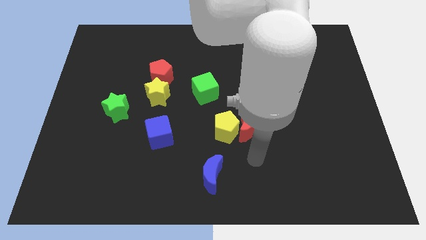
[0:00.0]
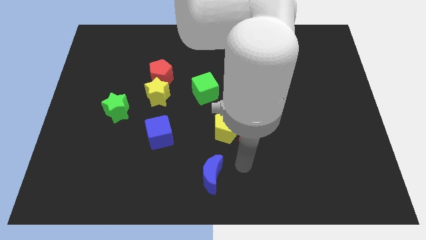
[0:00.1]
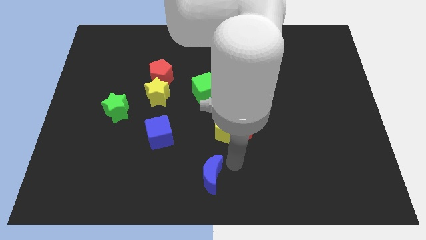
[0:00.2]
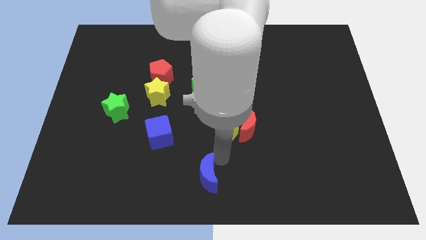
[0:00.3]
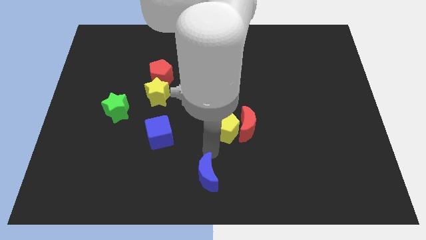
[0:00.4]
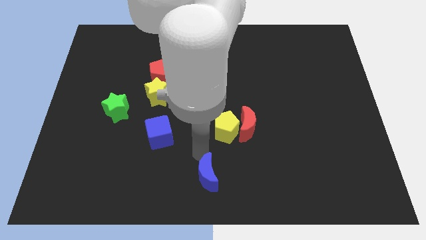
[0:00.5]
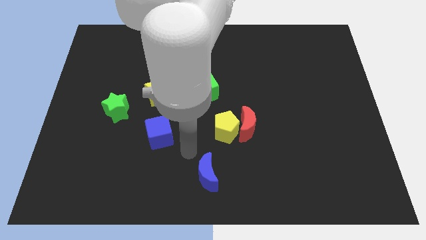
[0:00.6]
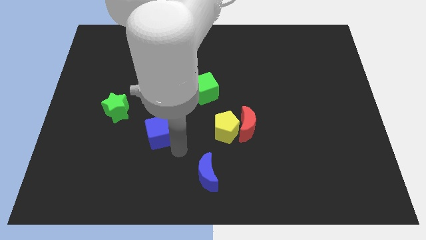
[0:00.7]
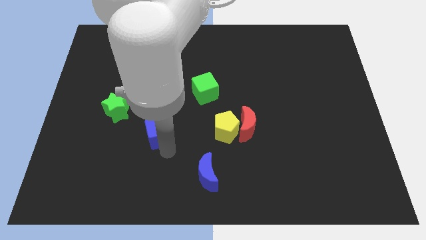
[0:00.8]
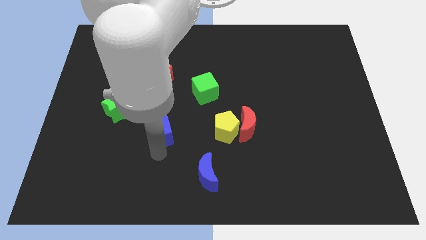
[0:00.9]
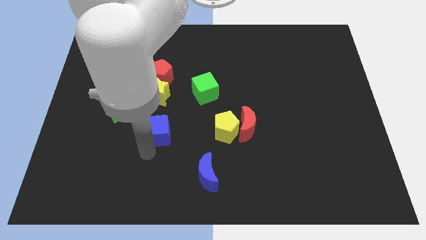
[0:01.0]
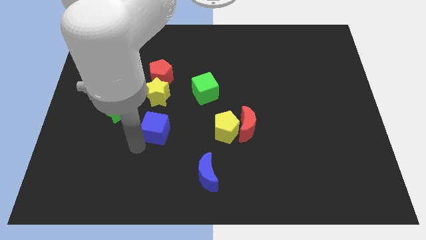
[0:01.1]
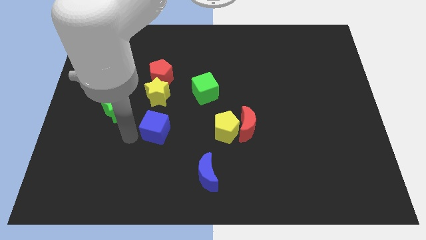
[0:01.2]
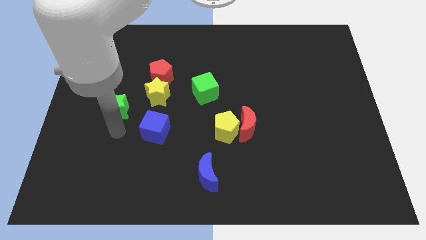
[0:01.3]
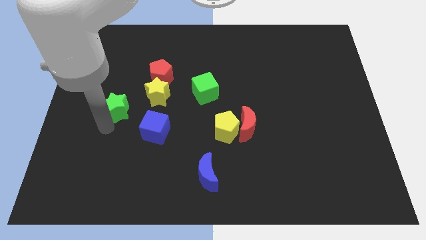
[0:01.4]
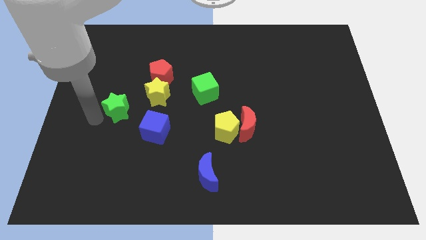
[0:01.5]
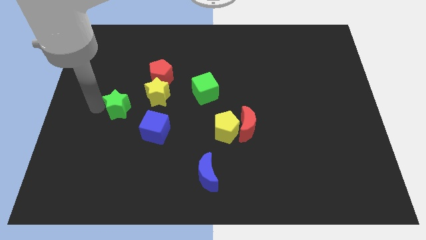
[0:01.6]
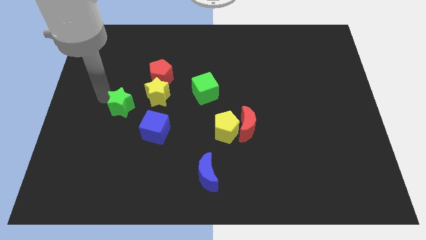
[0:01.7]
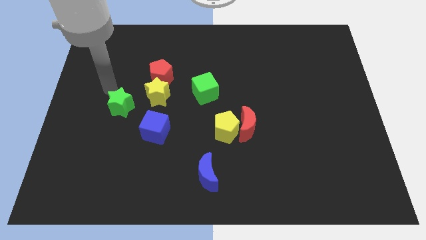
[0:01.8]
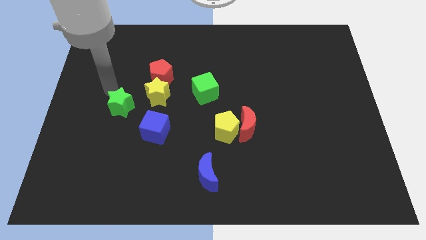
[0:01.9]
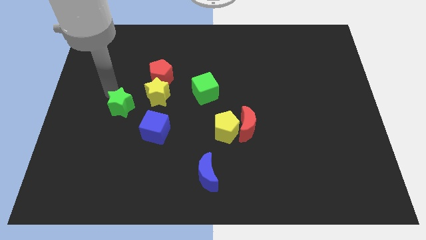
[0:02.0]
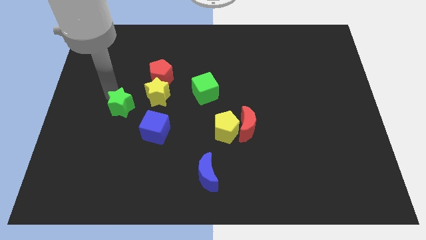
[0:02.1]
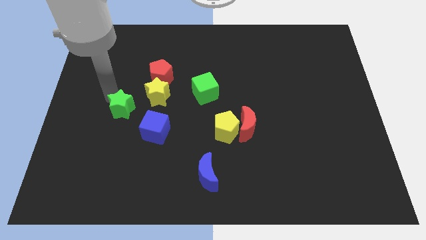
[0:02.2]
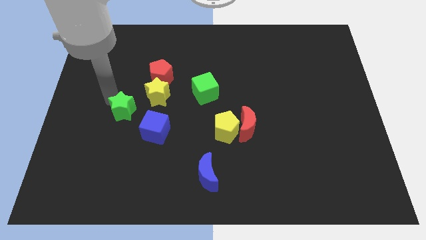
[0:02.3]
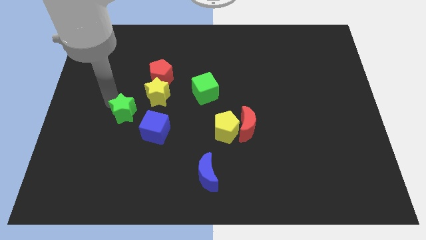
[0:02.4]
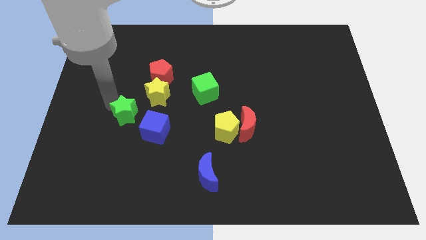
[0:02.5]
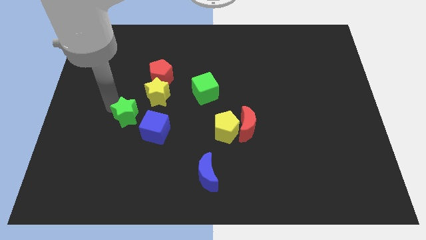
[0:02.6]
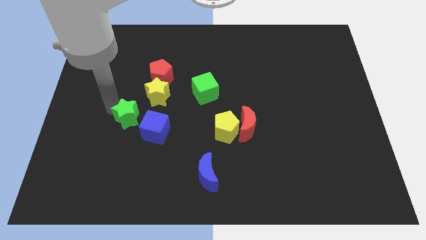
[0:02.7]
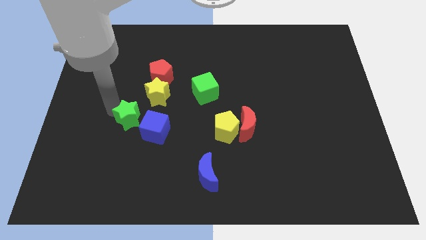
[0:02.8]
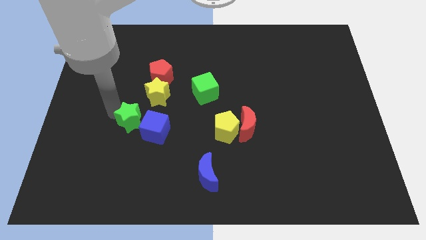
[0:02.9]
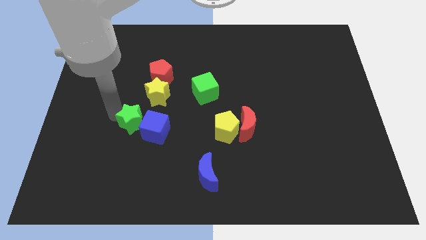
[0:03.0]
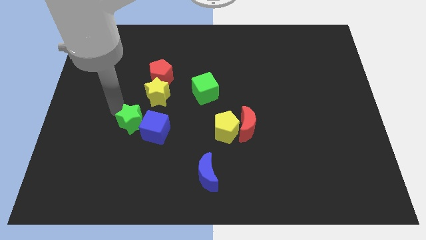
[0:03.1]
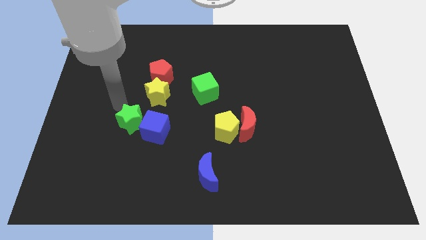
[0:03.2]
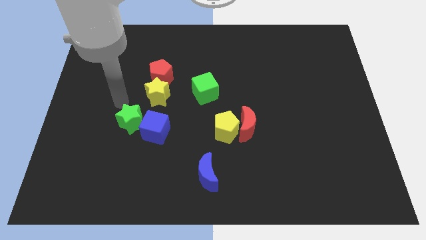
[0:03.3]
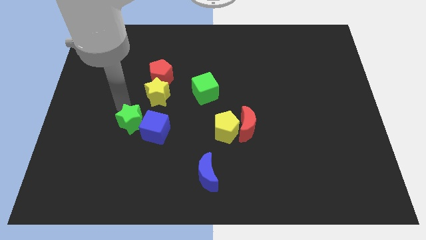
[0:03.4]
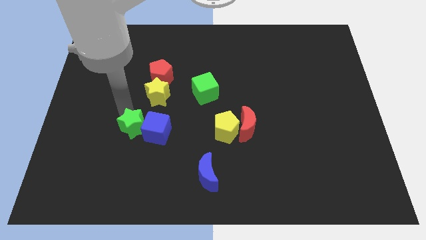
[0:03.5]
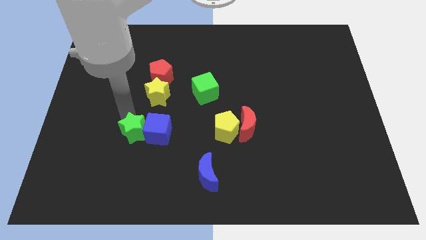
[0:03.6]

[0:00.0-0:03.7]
move the green star a bit downwards and then right

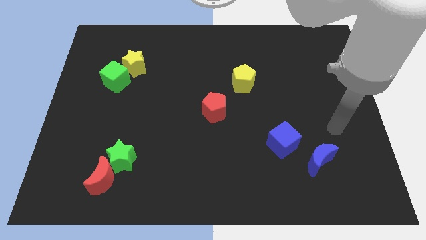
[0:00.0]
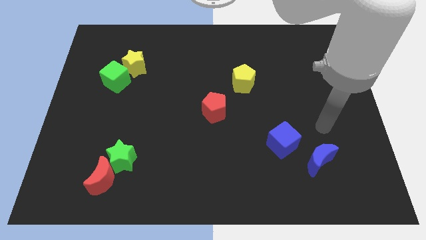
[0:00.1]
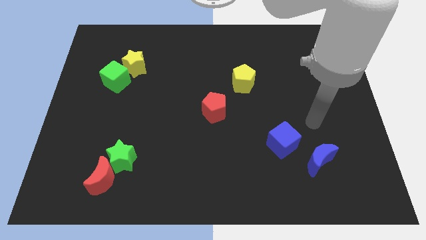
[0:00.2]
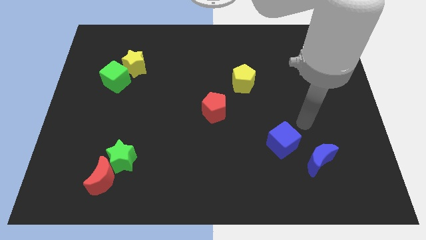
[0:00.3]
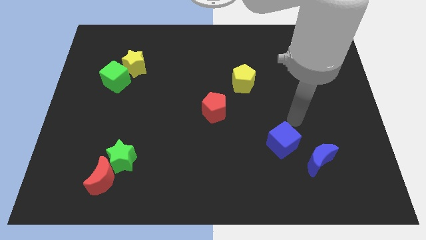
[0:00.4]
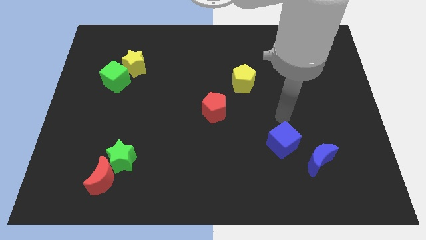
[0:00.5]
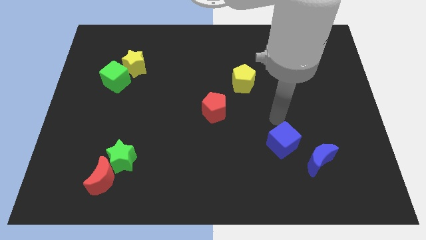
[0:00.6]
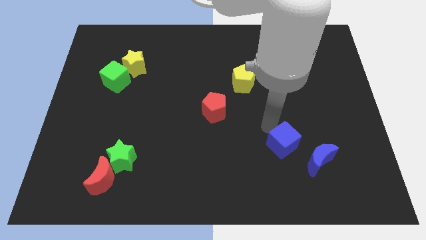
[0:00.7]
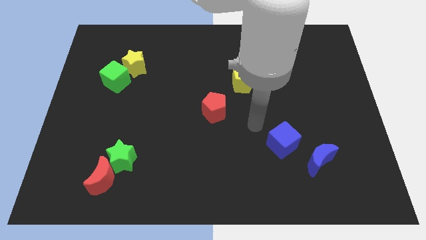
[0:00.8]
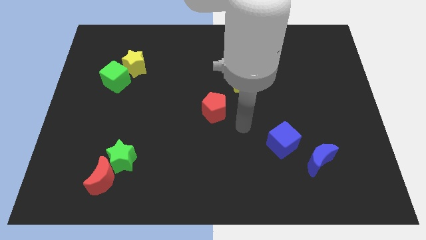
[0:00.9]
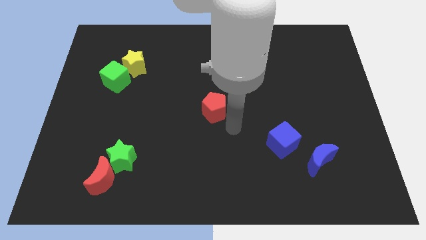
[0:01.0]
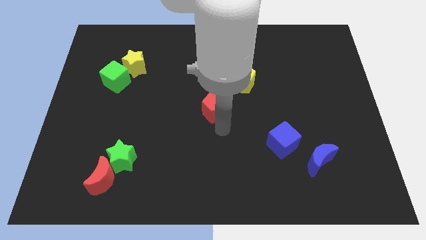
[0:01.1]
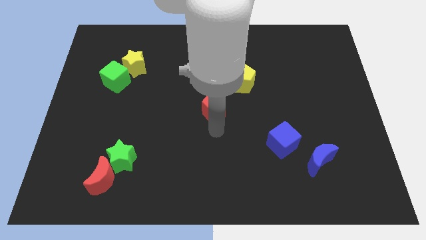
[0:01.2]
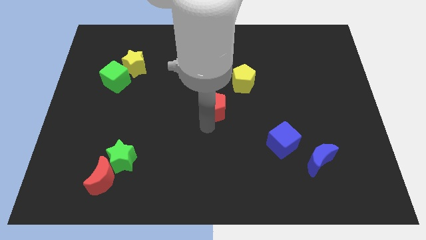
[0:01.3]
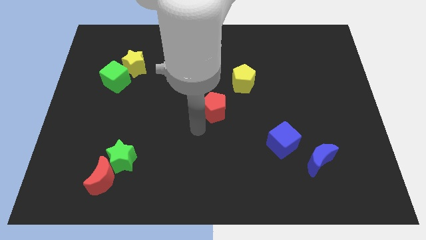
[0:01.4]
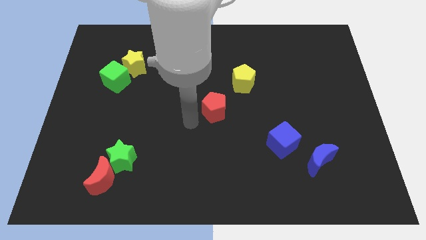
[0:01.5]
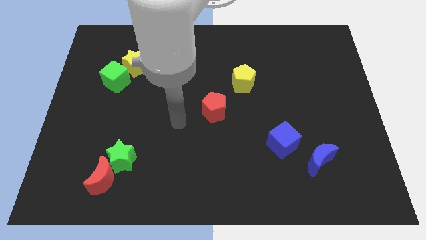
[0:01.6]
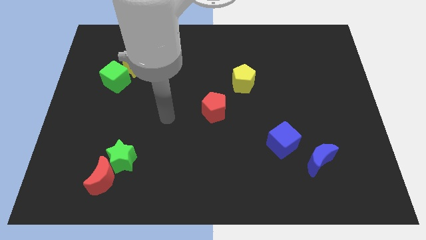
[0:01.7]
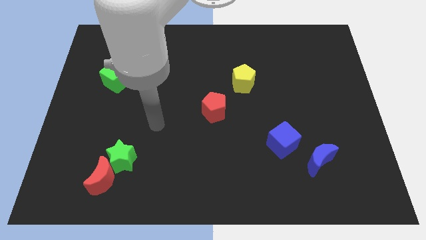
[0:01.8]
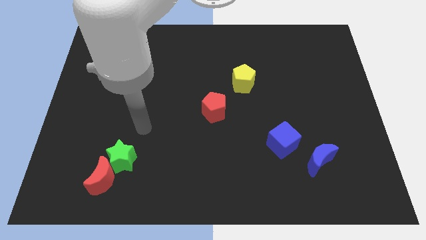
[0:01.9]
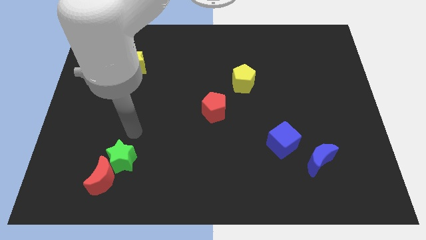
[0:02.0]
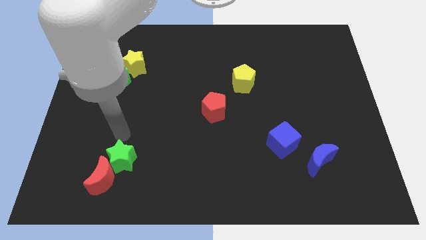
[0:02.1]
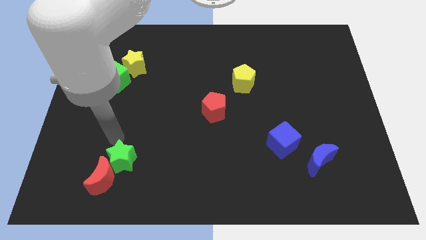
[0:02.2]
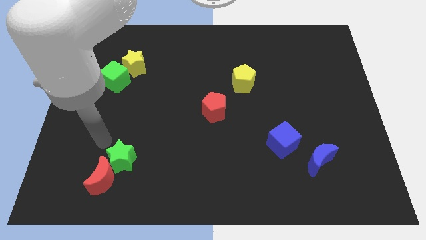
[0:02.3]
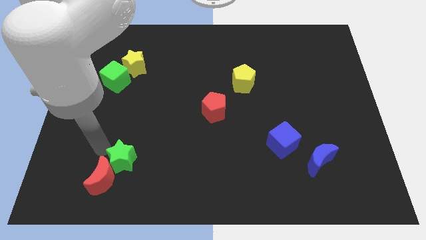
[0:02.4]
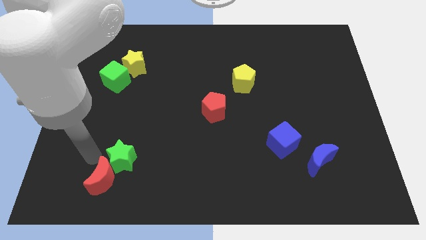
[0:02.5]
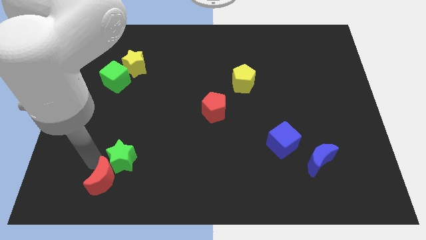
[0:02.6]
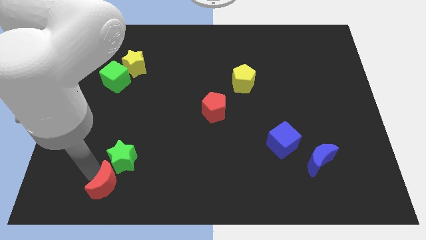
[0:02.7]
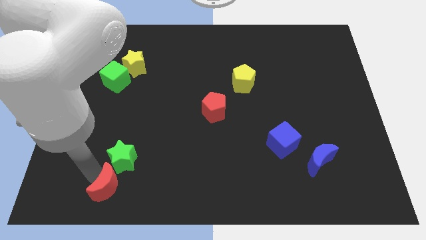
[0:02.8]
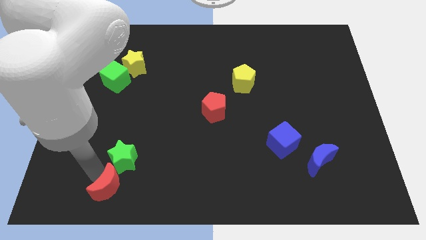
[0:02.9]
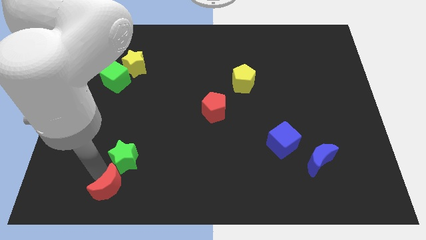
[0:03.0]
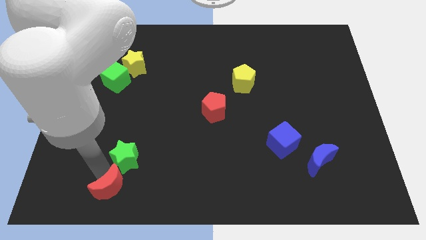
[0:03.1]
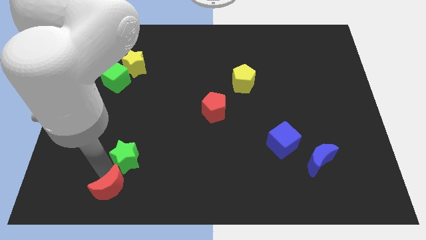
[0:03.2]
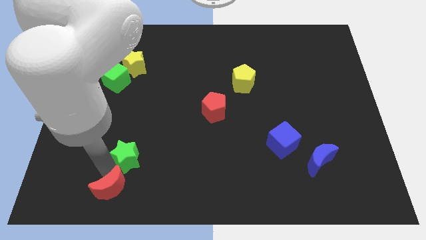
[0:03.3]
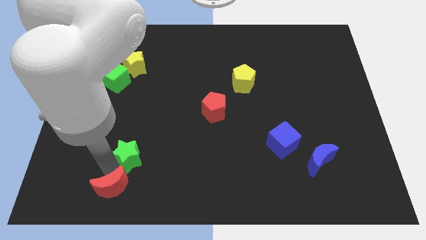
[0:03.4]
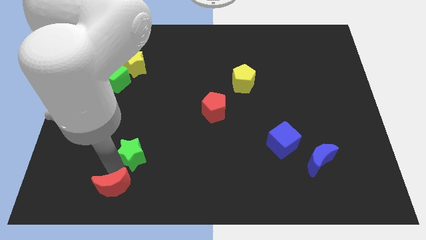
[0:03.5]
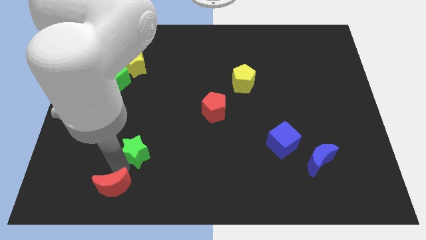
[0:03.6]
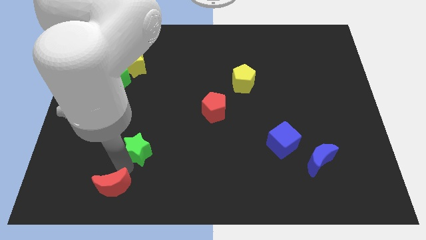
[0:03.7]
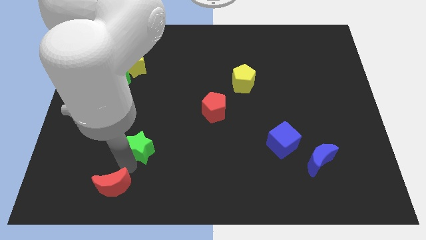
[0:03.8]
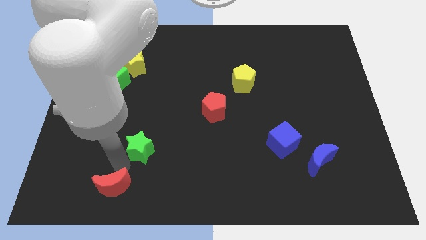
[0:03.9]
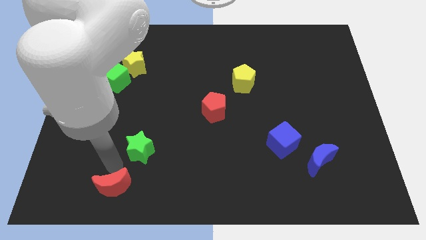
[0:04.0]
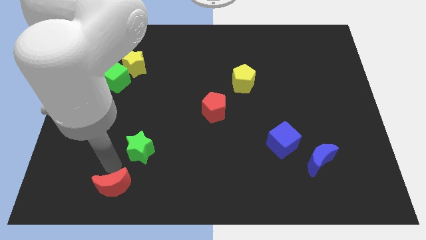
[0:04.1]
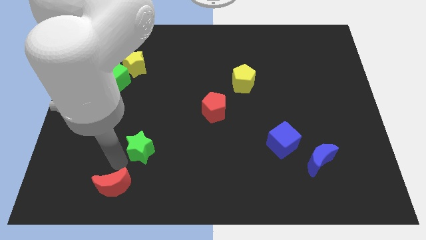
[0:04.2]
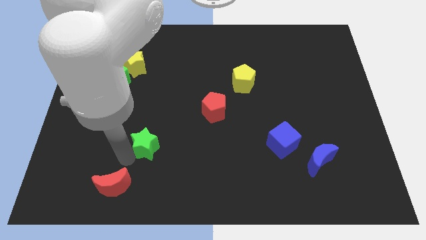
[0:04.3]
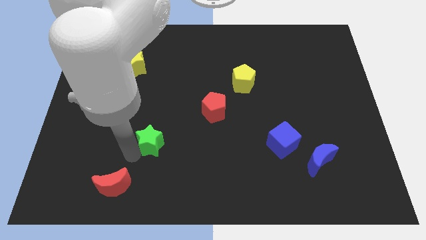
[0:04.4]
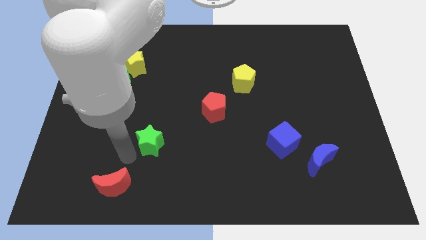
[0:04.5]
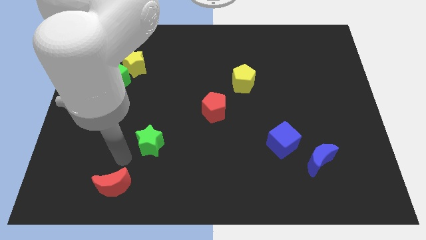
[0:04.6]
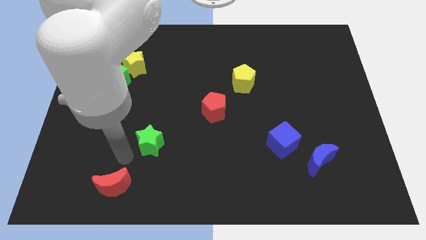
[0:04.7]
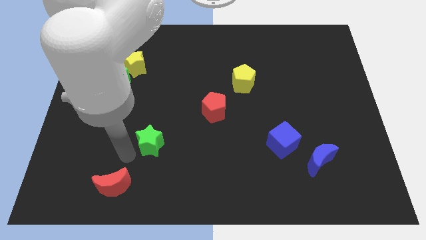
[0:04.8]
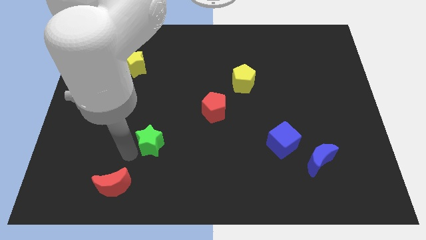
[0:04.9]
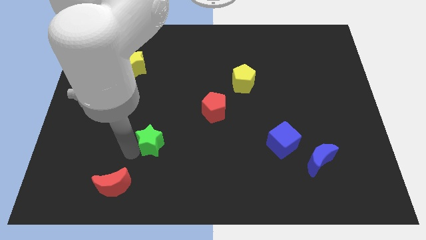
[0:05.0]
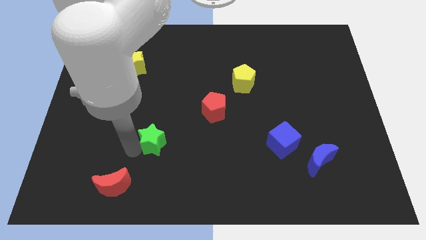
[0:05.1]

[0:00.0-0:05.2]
push the green star a bit up and right diagonally
